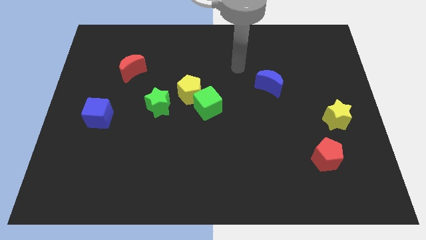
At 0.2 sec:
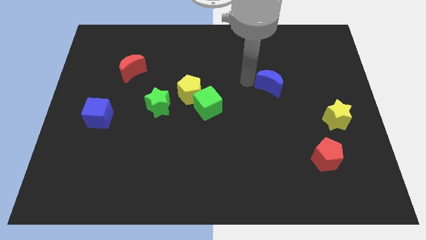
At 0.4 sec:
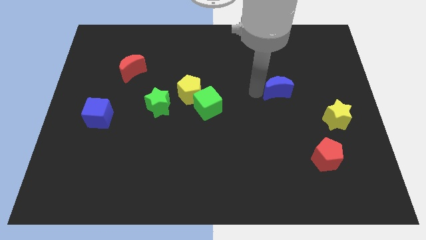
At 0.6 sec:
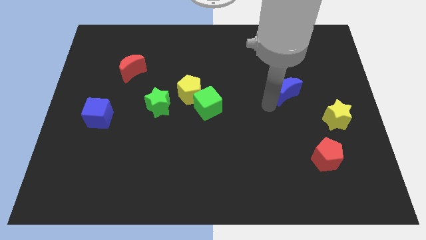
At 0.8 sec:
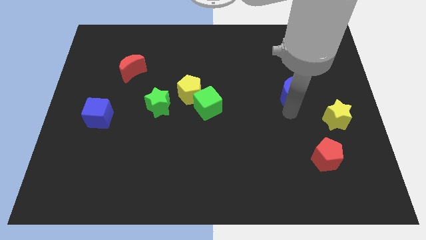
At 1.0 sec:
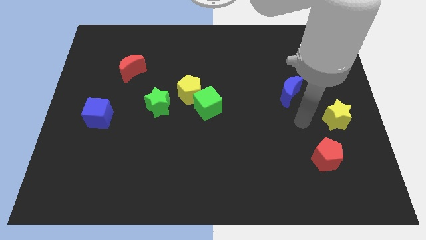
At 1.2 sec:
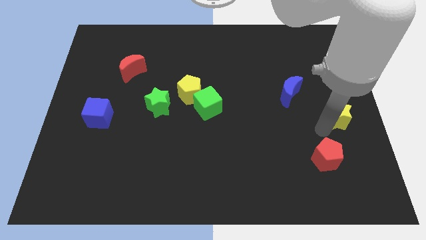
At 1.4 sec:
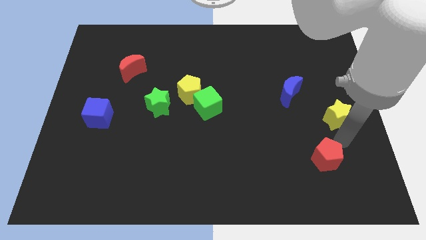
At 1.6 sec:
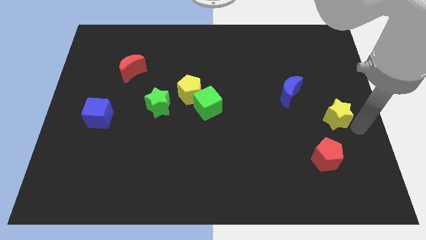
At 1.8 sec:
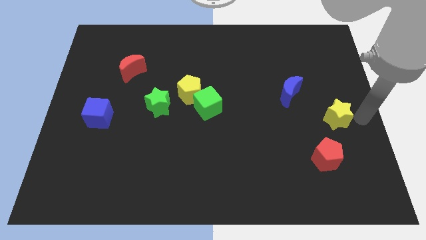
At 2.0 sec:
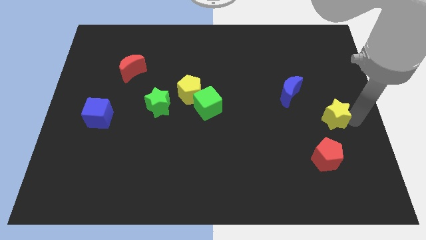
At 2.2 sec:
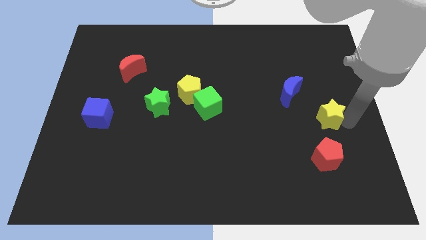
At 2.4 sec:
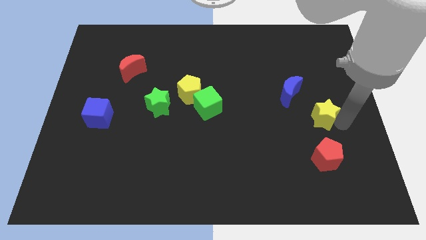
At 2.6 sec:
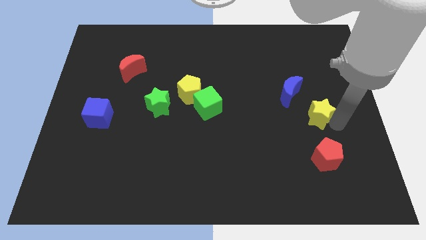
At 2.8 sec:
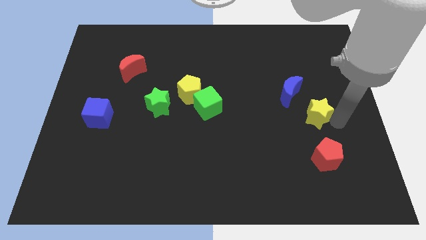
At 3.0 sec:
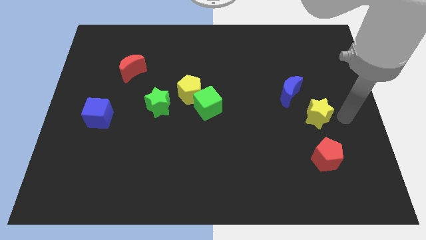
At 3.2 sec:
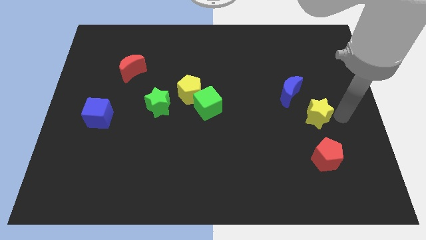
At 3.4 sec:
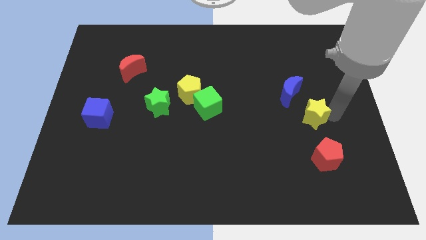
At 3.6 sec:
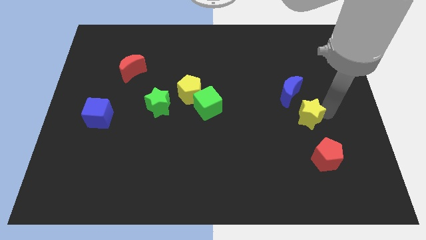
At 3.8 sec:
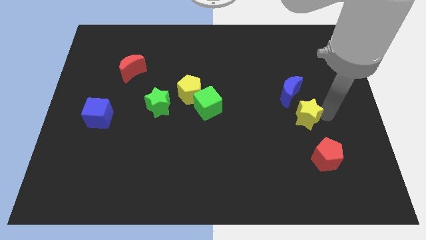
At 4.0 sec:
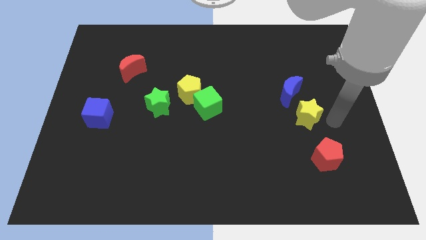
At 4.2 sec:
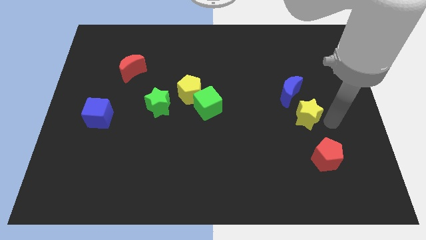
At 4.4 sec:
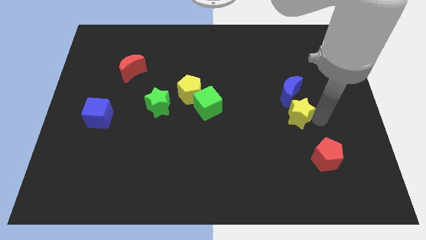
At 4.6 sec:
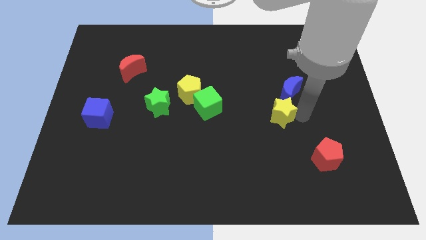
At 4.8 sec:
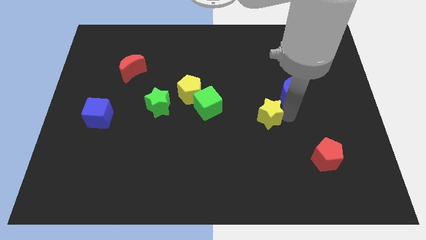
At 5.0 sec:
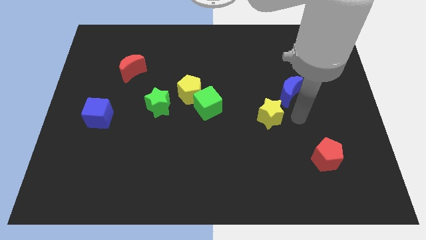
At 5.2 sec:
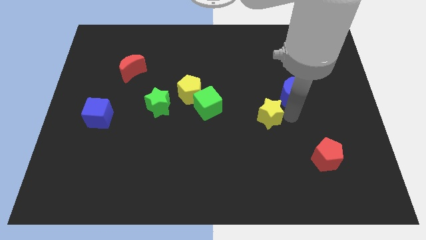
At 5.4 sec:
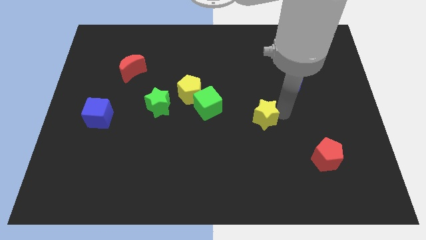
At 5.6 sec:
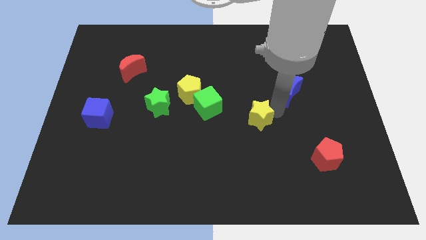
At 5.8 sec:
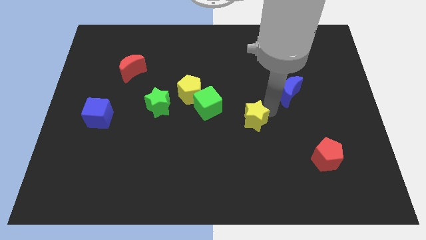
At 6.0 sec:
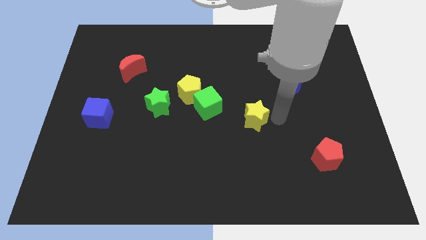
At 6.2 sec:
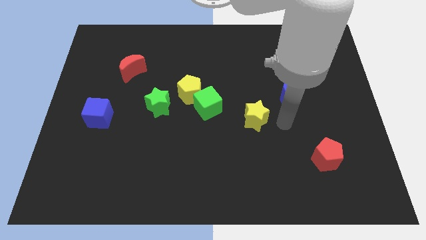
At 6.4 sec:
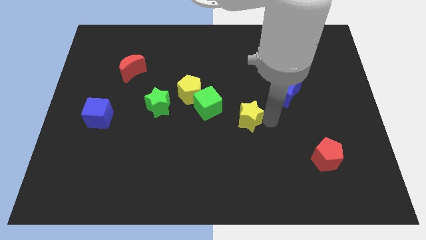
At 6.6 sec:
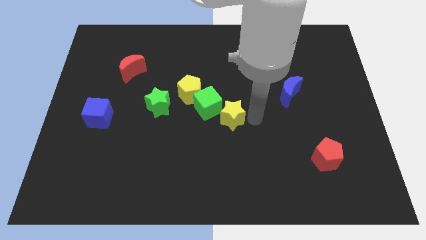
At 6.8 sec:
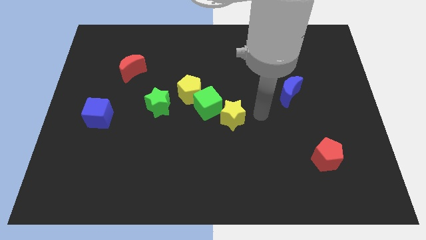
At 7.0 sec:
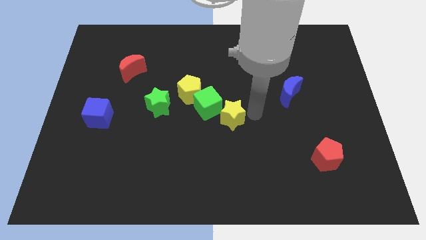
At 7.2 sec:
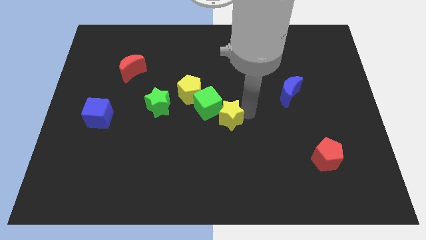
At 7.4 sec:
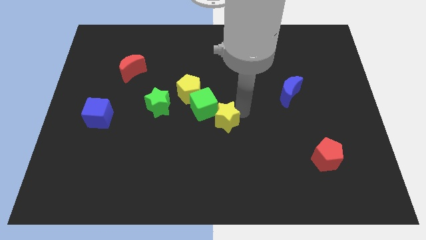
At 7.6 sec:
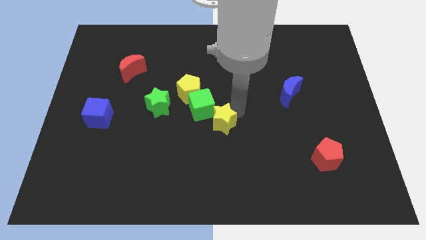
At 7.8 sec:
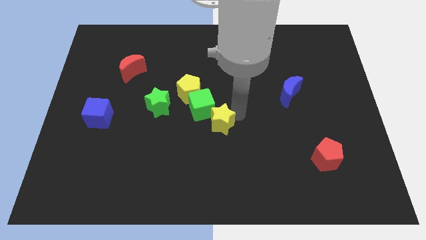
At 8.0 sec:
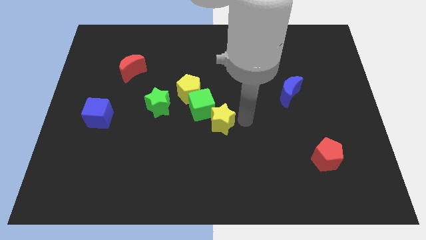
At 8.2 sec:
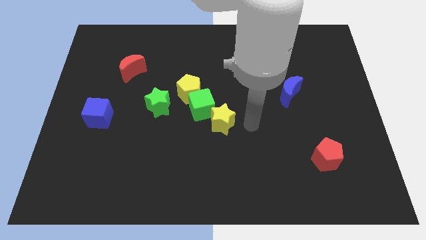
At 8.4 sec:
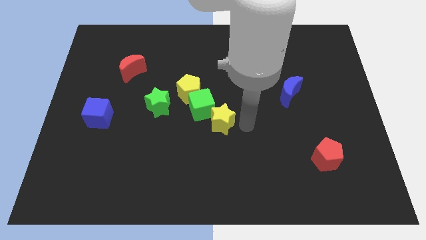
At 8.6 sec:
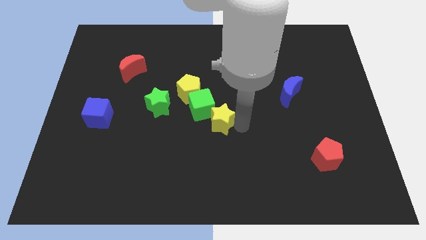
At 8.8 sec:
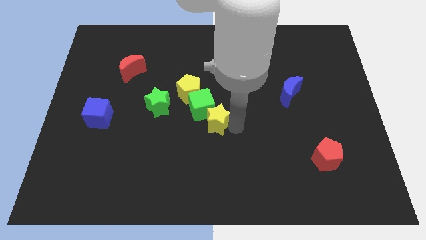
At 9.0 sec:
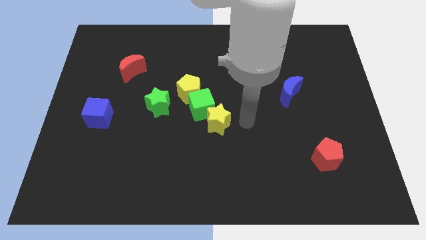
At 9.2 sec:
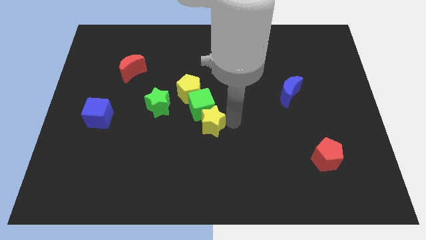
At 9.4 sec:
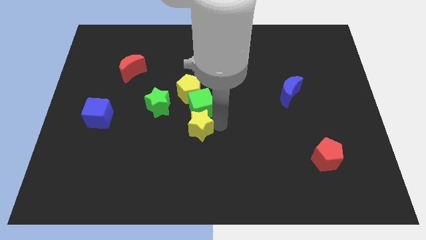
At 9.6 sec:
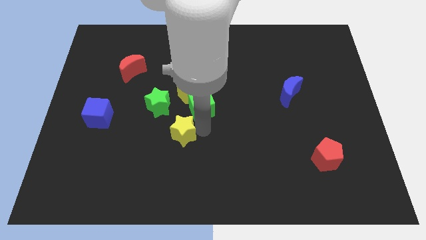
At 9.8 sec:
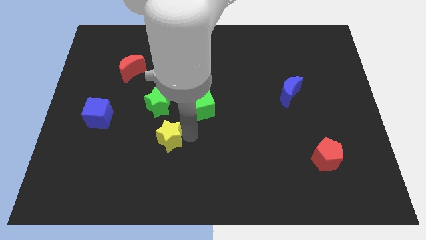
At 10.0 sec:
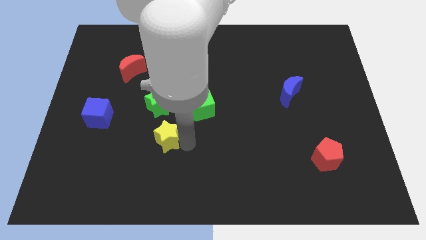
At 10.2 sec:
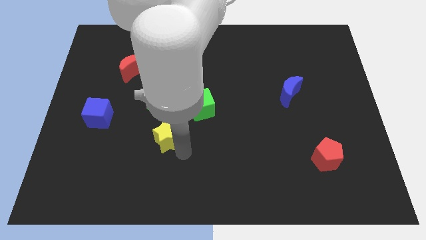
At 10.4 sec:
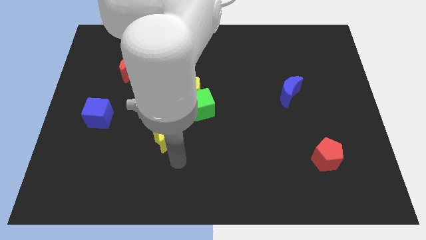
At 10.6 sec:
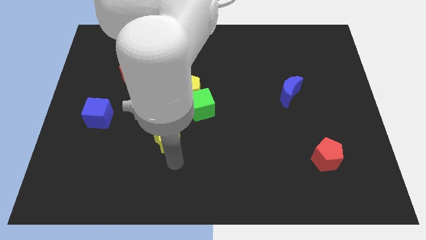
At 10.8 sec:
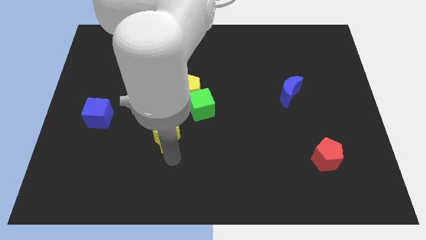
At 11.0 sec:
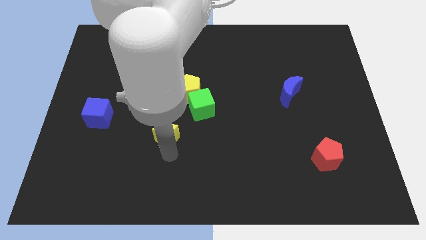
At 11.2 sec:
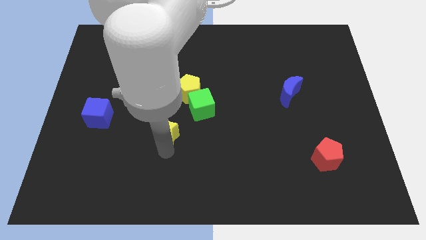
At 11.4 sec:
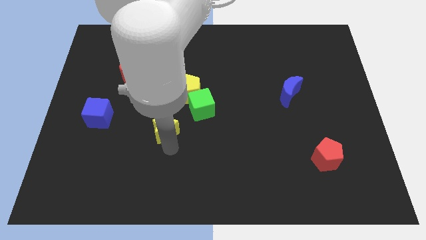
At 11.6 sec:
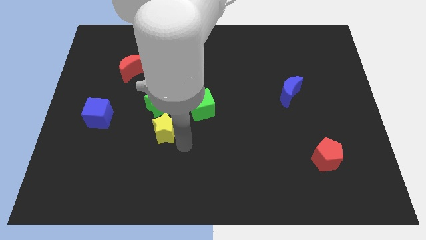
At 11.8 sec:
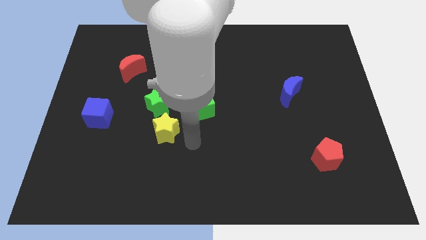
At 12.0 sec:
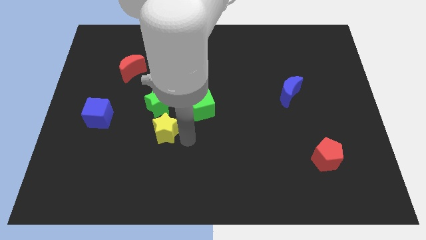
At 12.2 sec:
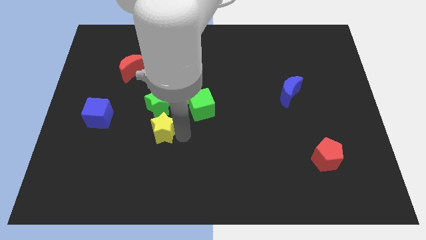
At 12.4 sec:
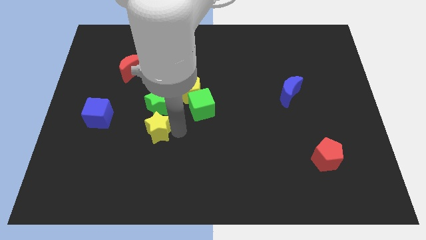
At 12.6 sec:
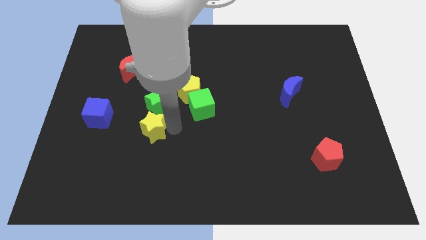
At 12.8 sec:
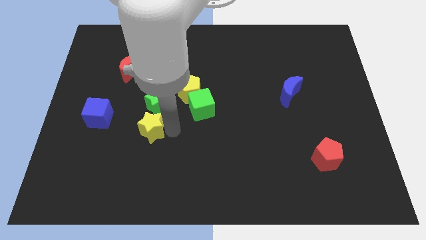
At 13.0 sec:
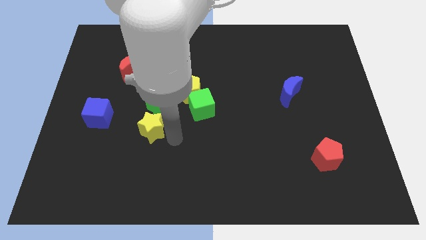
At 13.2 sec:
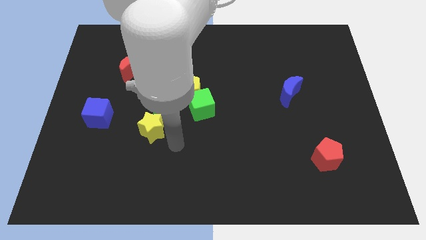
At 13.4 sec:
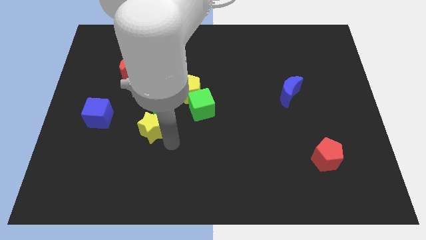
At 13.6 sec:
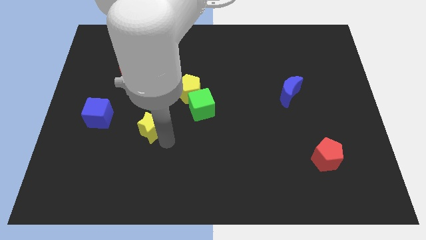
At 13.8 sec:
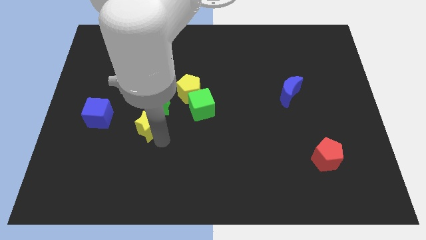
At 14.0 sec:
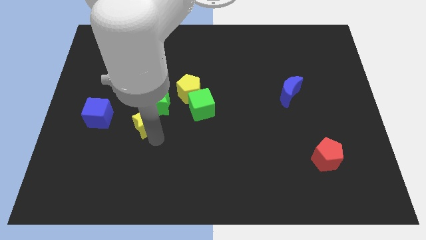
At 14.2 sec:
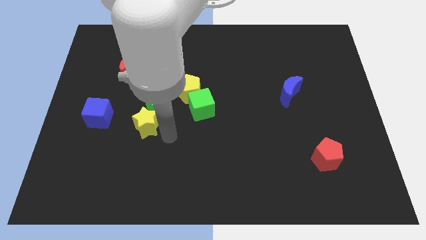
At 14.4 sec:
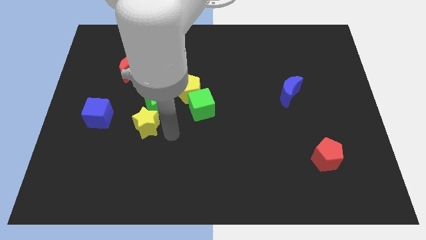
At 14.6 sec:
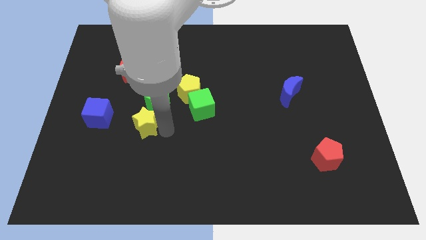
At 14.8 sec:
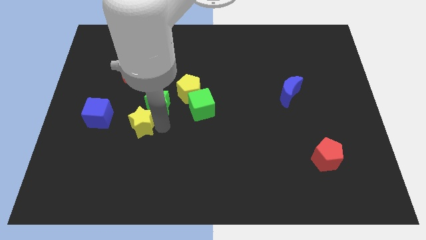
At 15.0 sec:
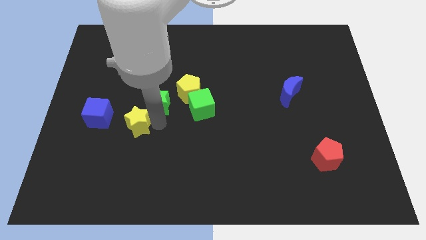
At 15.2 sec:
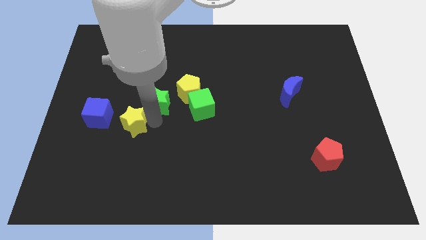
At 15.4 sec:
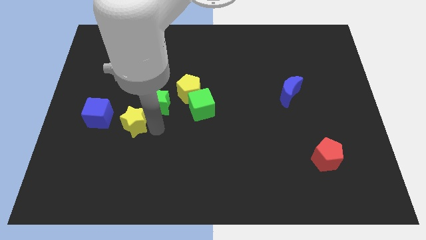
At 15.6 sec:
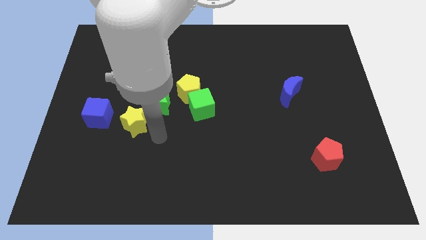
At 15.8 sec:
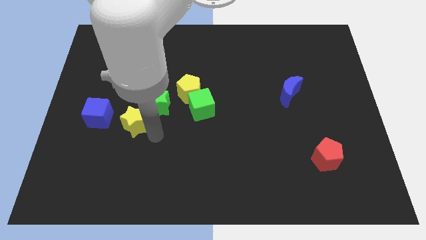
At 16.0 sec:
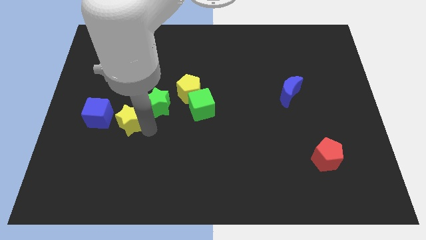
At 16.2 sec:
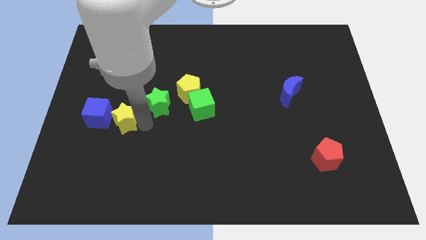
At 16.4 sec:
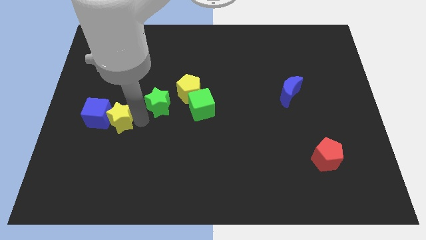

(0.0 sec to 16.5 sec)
slide the yellow star to the blue cube
